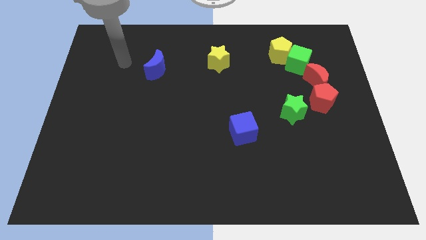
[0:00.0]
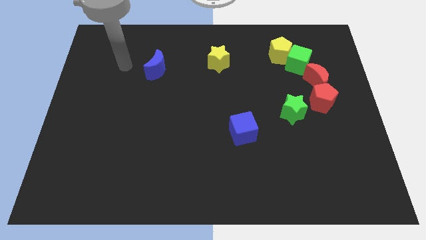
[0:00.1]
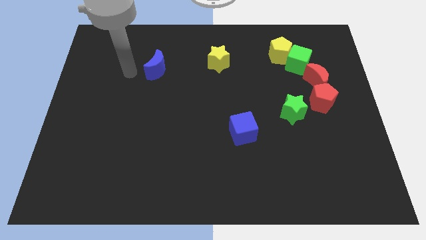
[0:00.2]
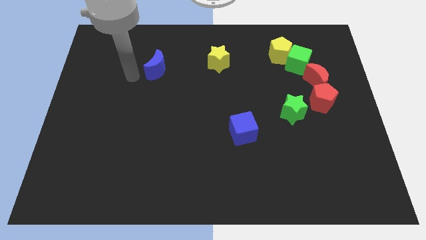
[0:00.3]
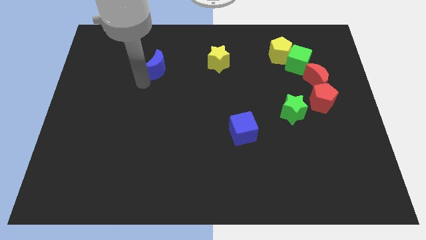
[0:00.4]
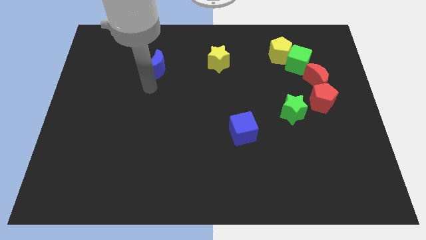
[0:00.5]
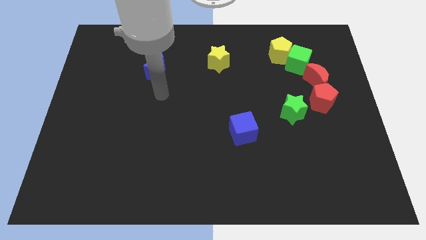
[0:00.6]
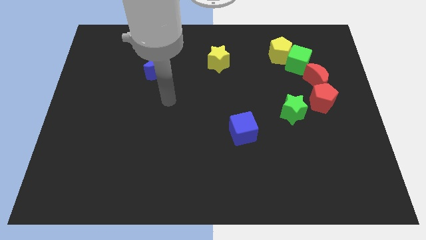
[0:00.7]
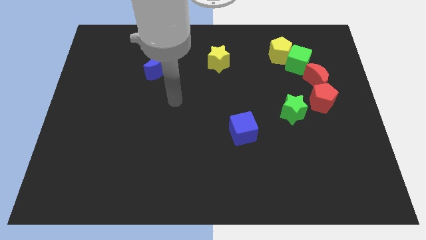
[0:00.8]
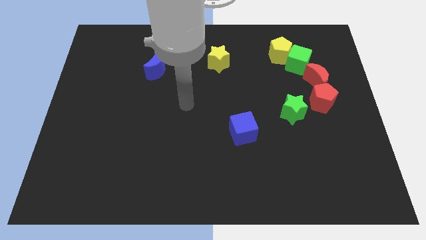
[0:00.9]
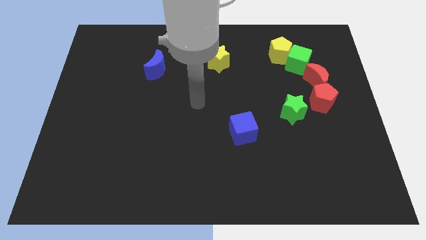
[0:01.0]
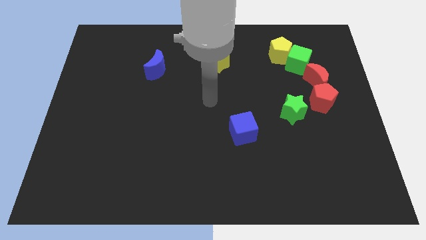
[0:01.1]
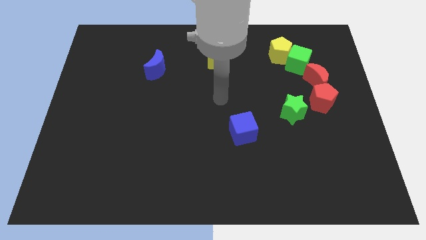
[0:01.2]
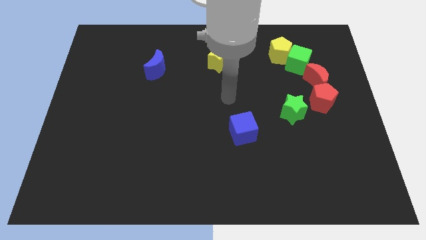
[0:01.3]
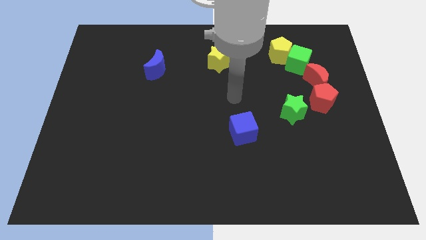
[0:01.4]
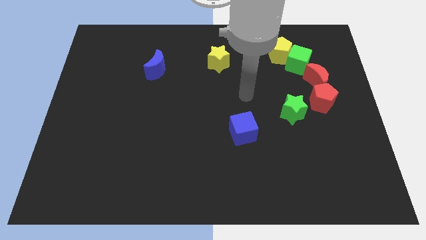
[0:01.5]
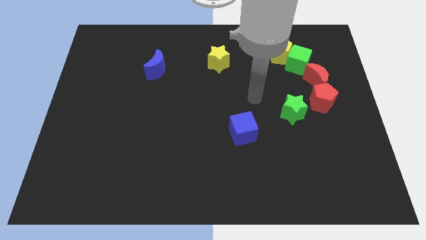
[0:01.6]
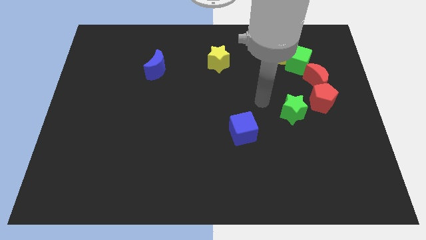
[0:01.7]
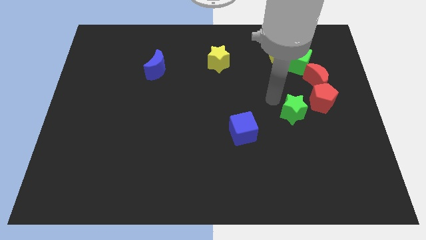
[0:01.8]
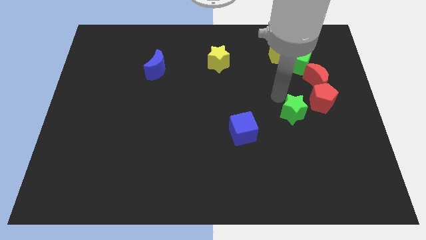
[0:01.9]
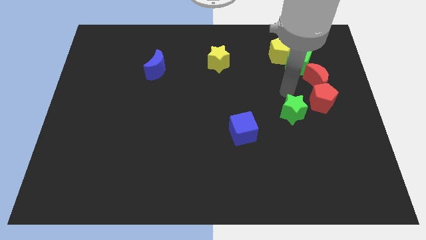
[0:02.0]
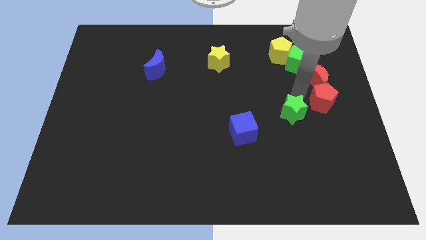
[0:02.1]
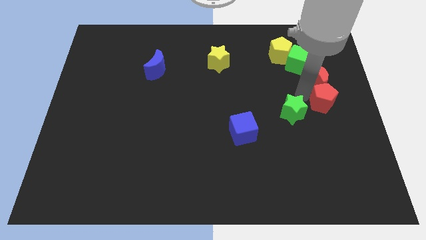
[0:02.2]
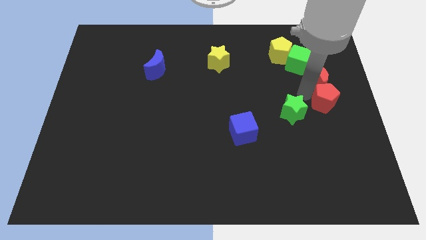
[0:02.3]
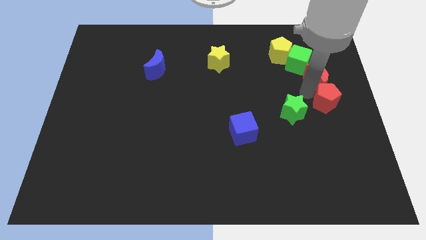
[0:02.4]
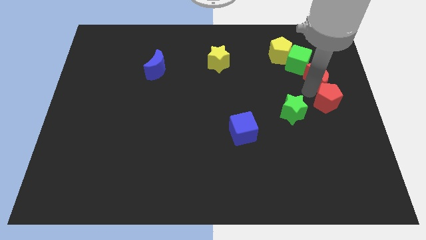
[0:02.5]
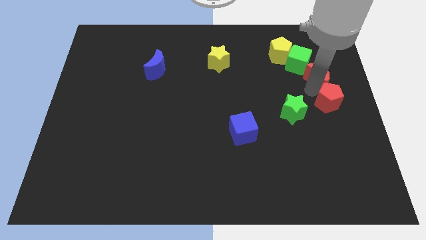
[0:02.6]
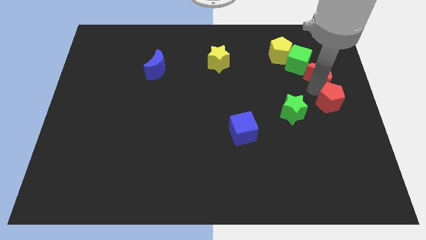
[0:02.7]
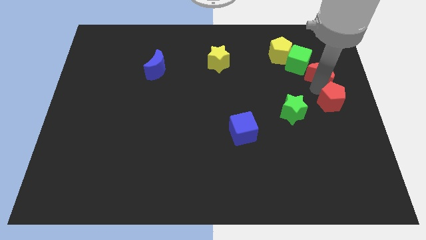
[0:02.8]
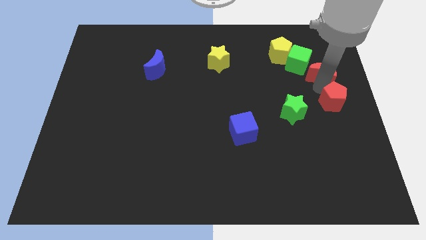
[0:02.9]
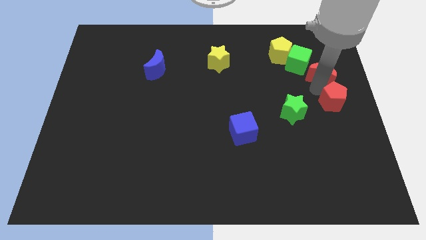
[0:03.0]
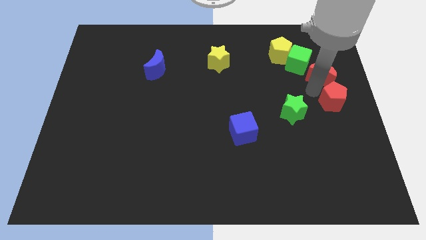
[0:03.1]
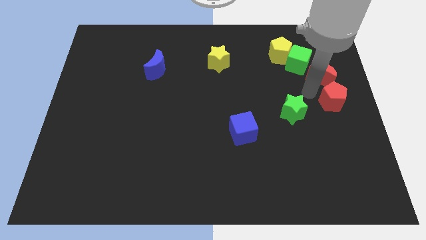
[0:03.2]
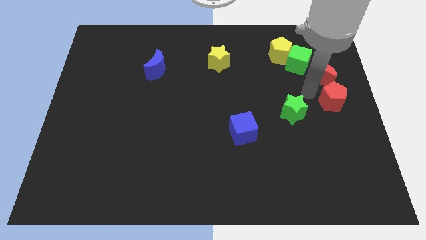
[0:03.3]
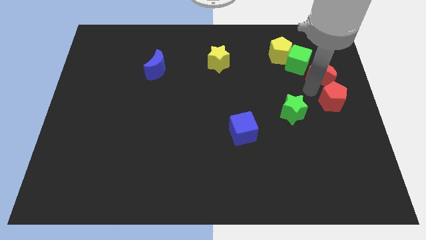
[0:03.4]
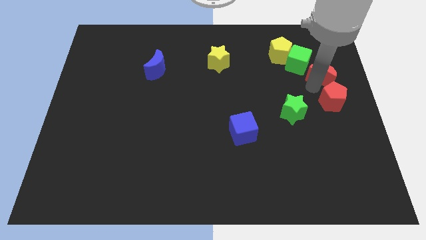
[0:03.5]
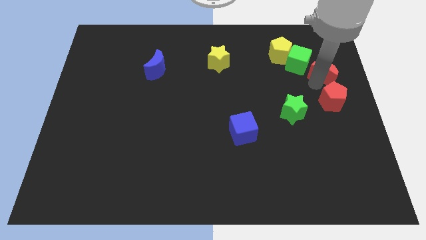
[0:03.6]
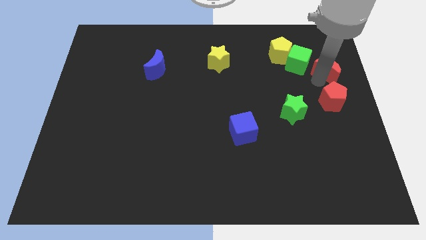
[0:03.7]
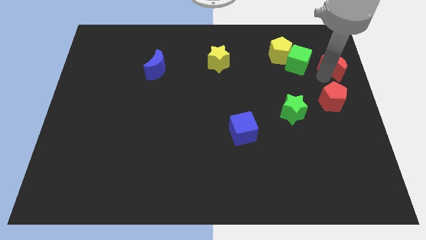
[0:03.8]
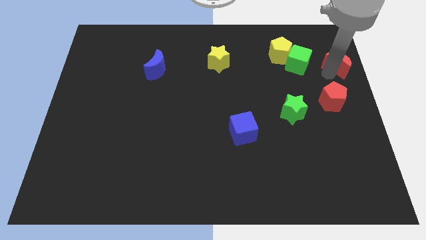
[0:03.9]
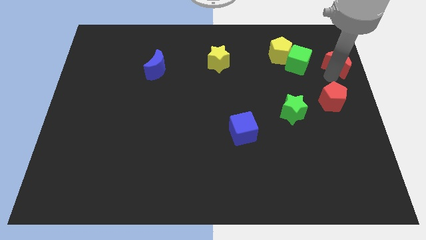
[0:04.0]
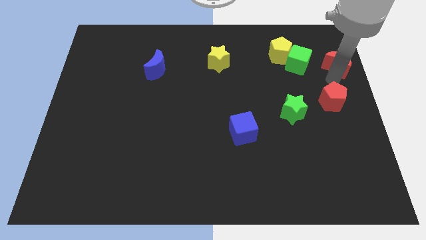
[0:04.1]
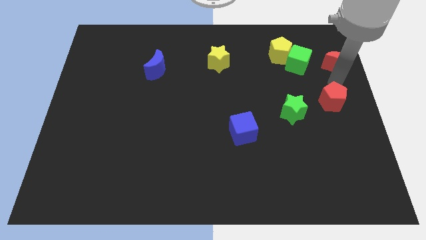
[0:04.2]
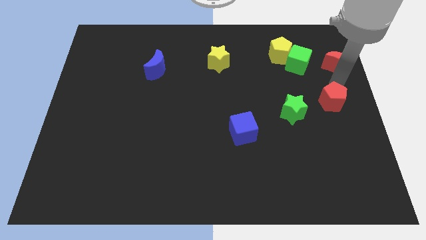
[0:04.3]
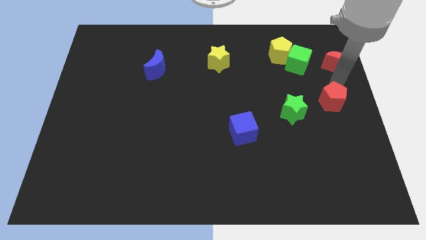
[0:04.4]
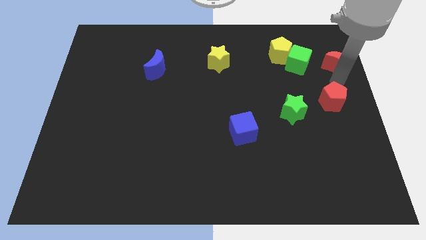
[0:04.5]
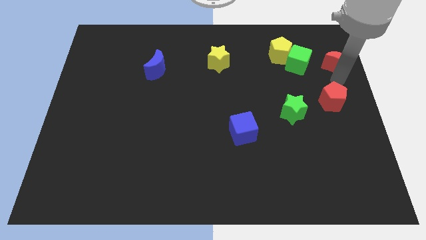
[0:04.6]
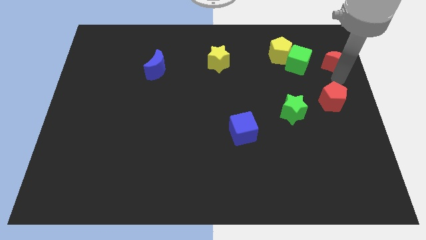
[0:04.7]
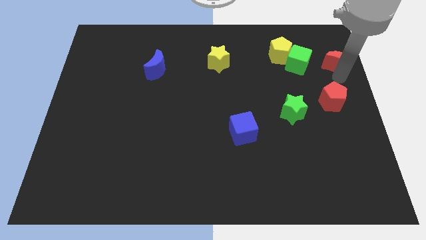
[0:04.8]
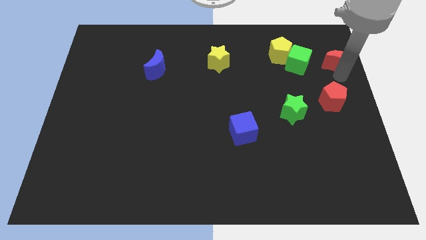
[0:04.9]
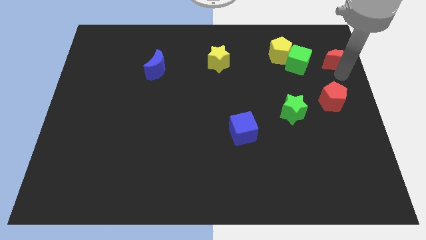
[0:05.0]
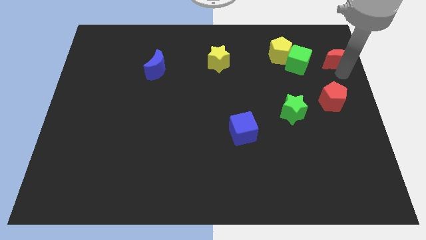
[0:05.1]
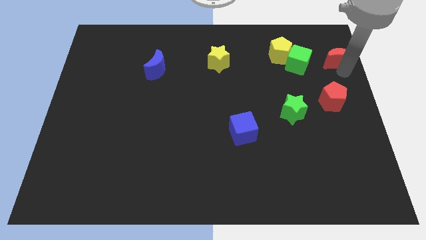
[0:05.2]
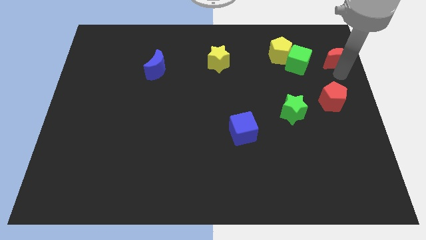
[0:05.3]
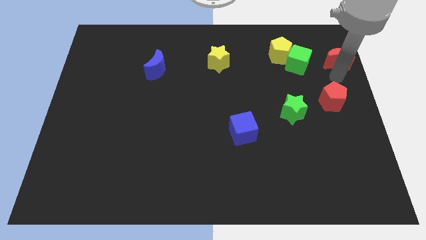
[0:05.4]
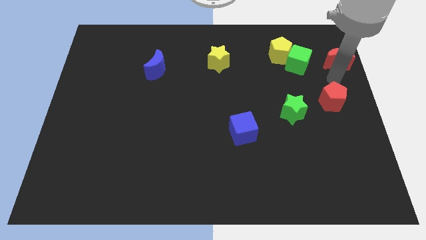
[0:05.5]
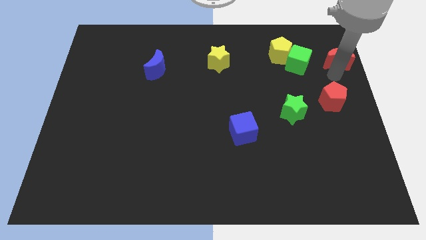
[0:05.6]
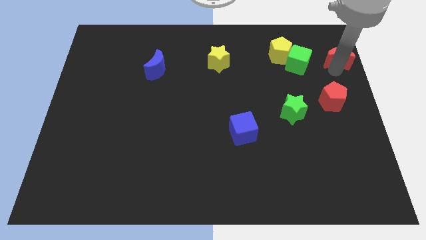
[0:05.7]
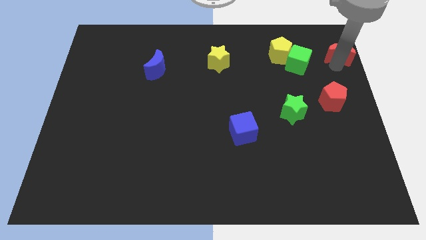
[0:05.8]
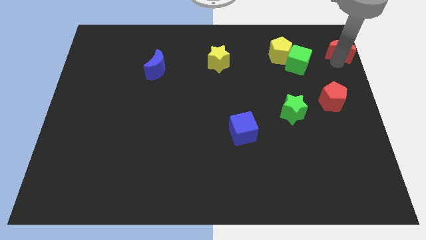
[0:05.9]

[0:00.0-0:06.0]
move the red moon to the top right corner
